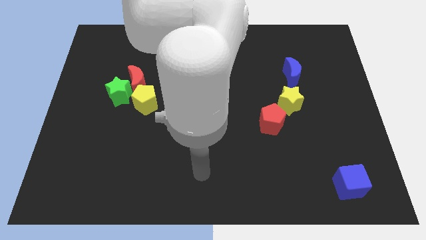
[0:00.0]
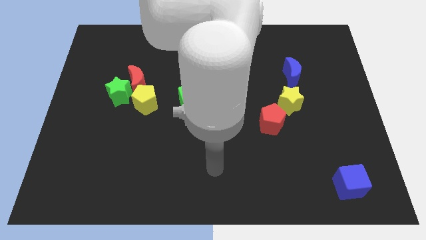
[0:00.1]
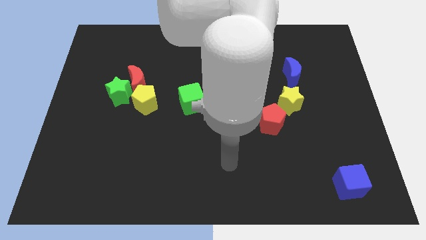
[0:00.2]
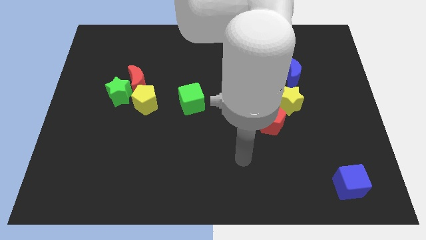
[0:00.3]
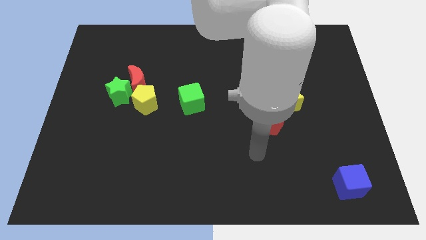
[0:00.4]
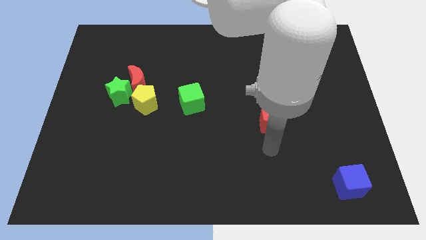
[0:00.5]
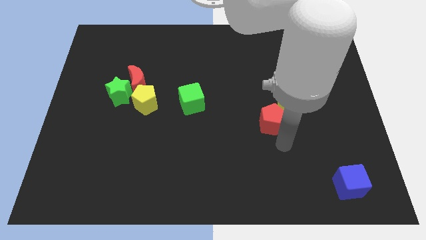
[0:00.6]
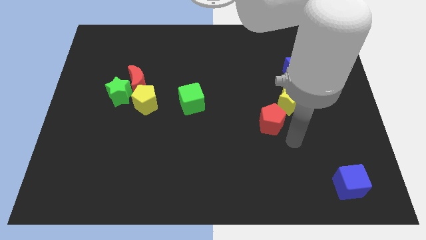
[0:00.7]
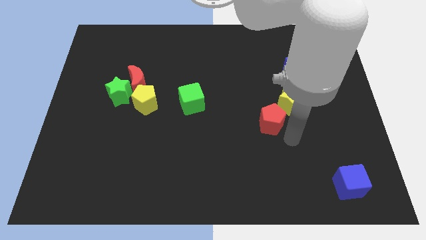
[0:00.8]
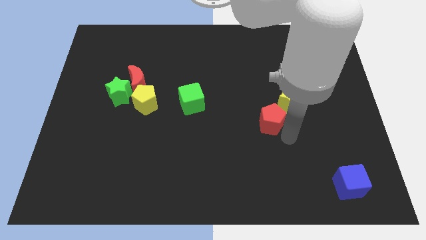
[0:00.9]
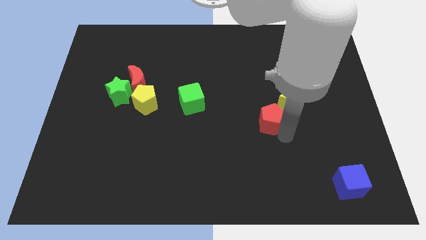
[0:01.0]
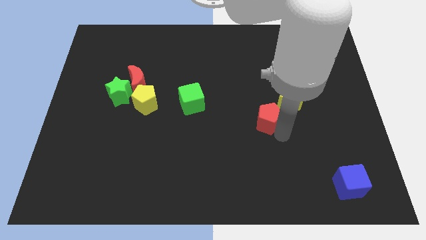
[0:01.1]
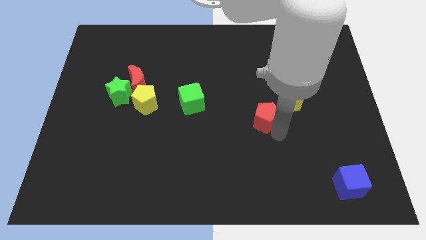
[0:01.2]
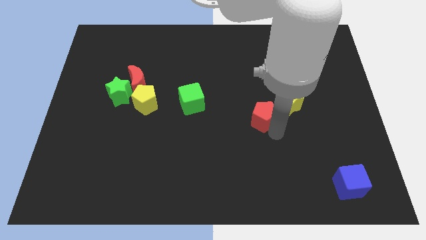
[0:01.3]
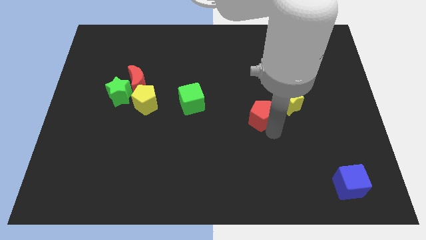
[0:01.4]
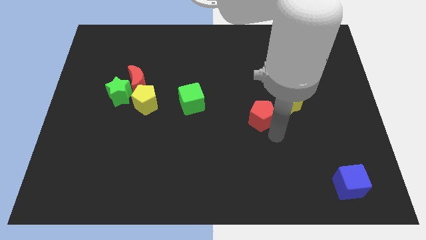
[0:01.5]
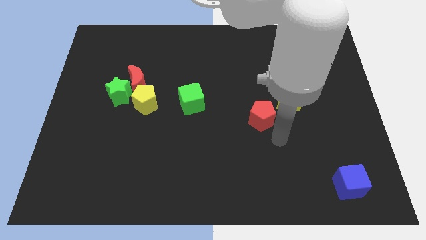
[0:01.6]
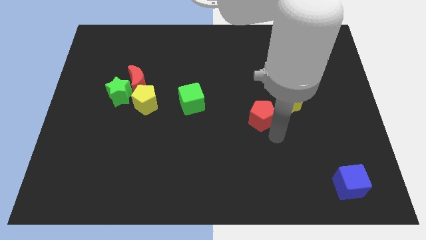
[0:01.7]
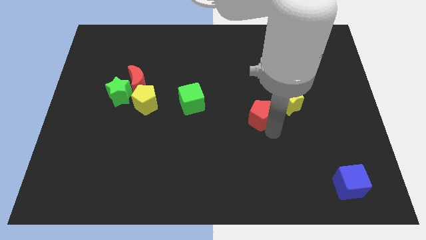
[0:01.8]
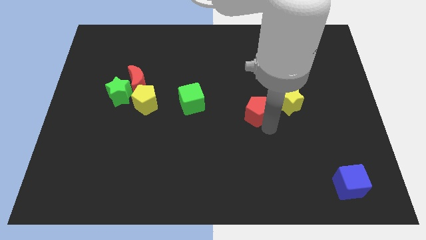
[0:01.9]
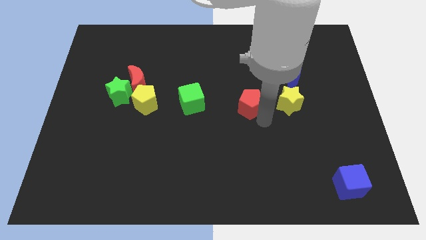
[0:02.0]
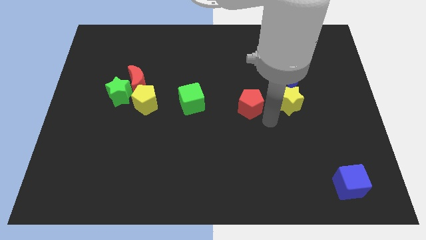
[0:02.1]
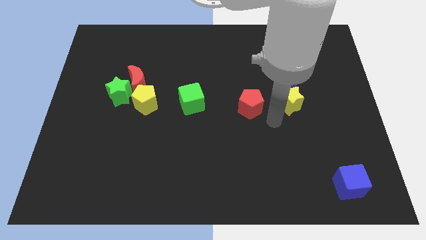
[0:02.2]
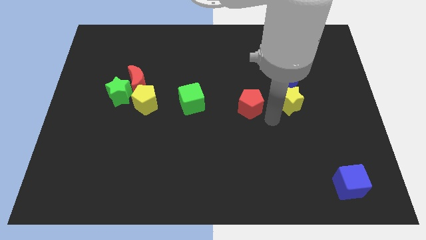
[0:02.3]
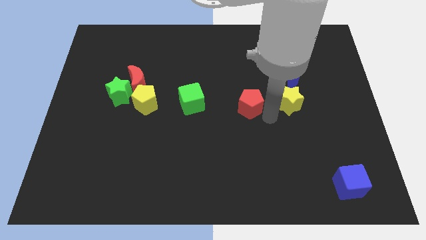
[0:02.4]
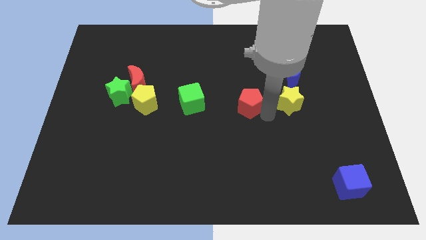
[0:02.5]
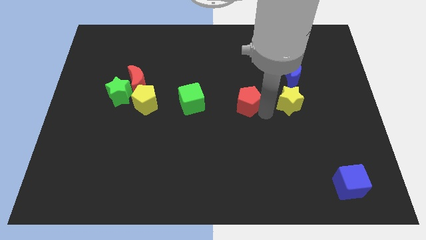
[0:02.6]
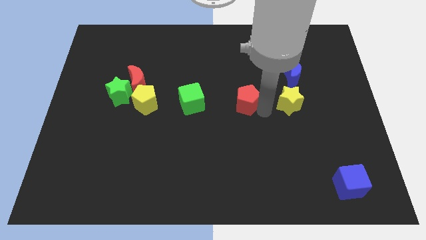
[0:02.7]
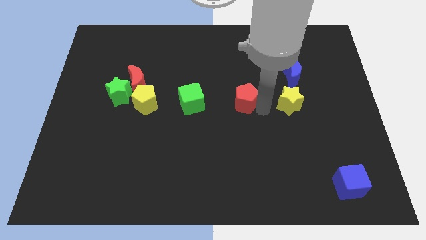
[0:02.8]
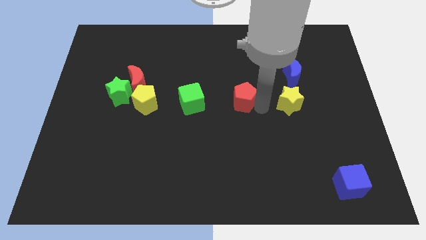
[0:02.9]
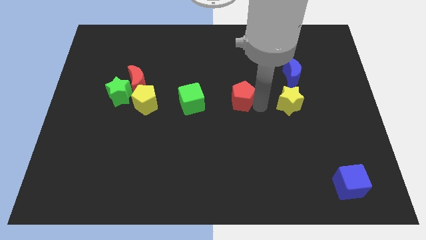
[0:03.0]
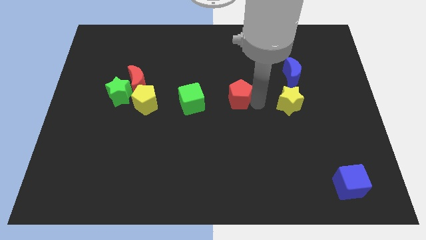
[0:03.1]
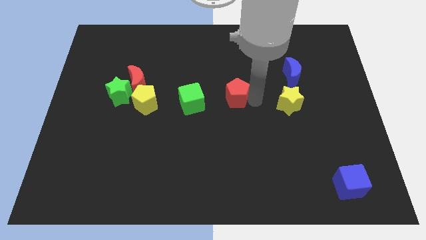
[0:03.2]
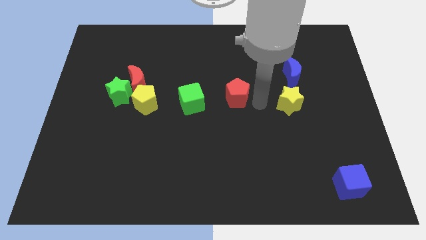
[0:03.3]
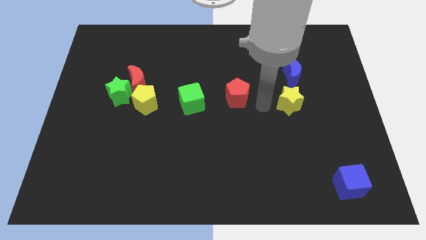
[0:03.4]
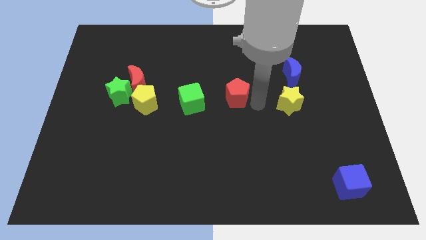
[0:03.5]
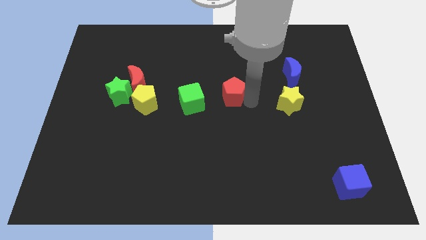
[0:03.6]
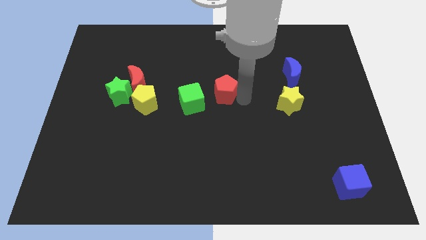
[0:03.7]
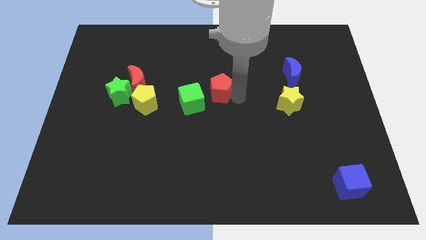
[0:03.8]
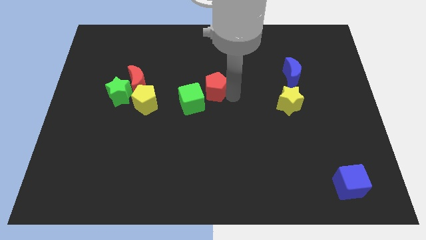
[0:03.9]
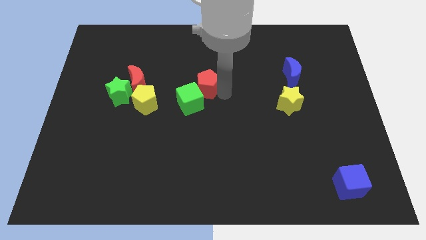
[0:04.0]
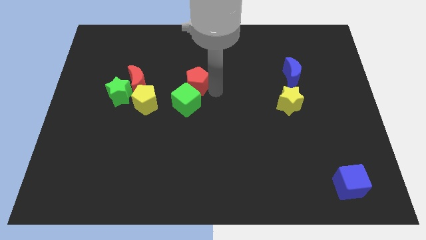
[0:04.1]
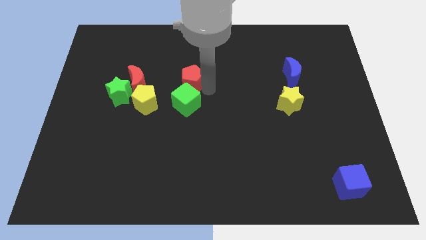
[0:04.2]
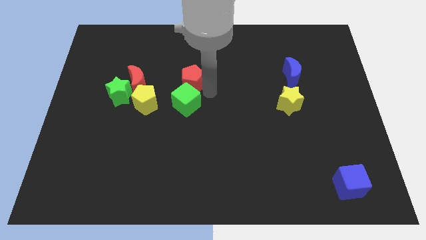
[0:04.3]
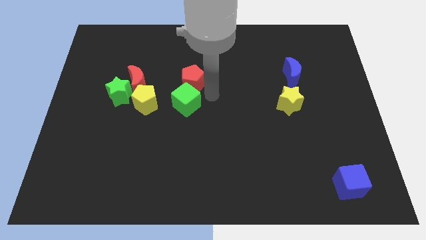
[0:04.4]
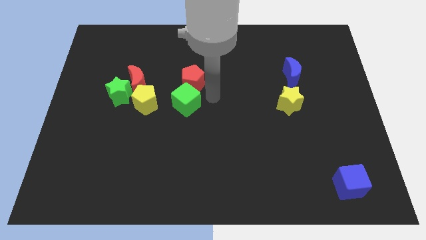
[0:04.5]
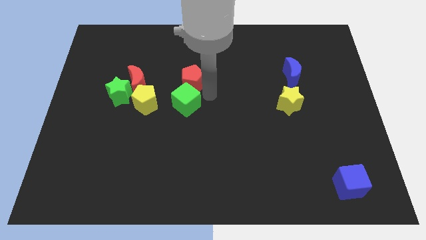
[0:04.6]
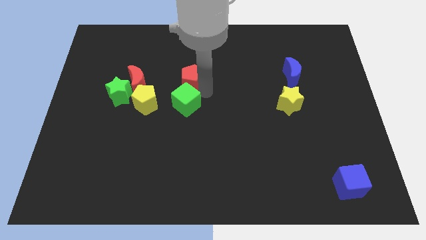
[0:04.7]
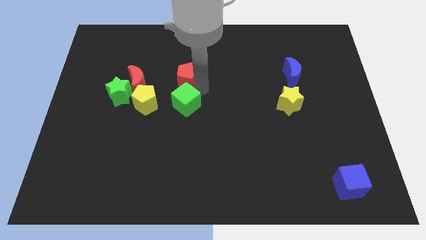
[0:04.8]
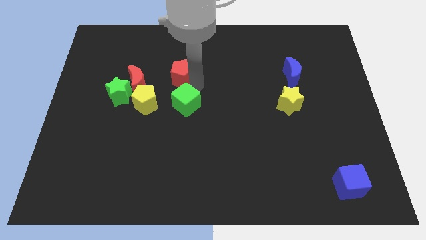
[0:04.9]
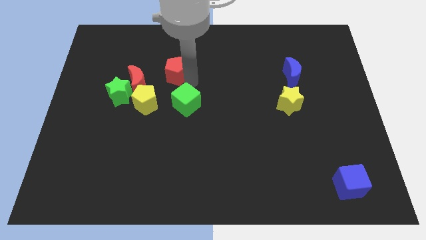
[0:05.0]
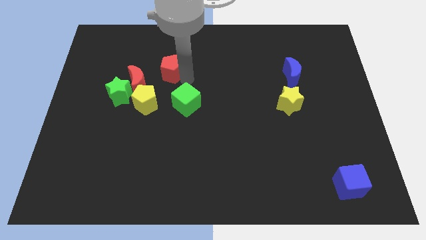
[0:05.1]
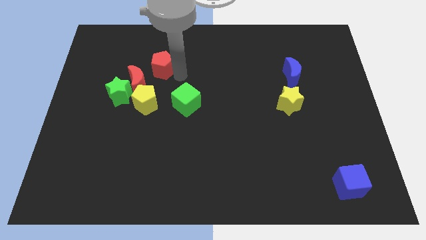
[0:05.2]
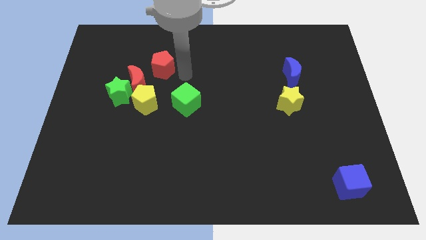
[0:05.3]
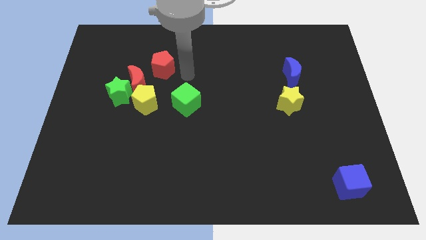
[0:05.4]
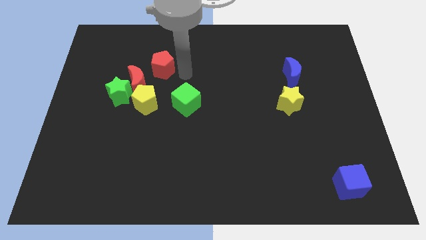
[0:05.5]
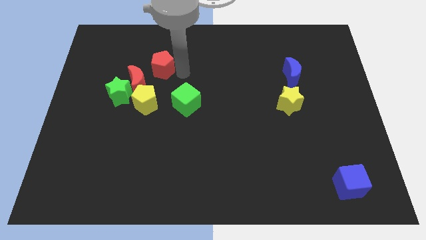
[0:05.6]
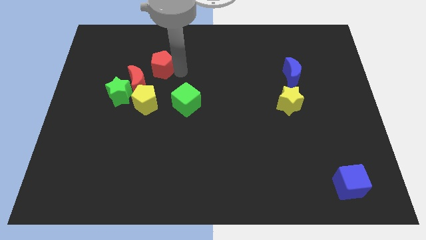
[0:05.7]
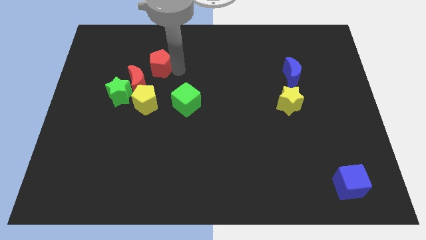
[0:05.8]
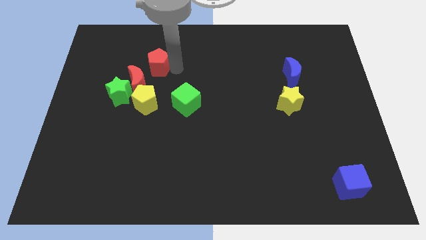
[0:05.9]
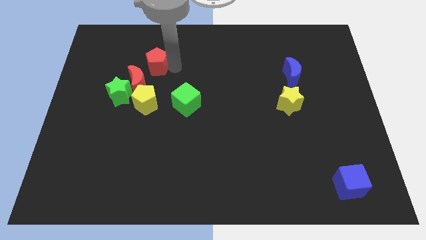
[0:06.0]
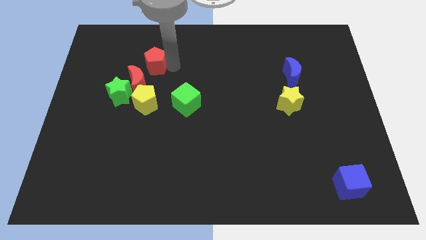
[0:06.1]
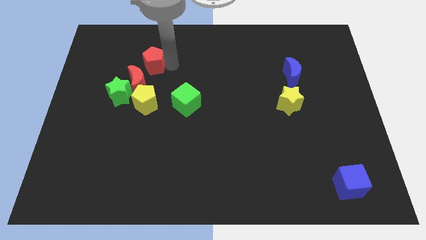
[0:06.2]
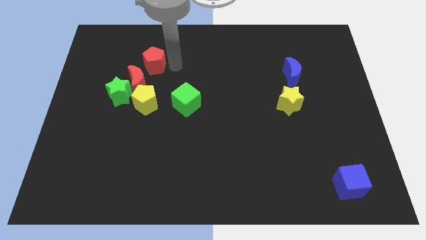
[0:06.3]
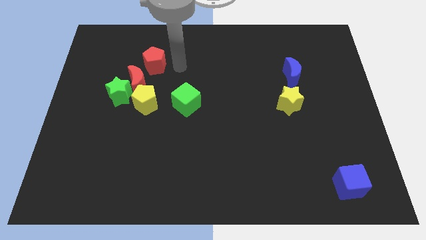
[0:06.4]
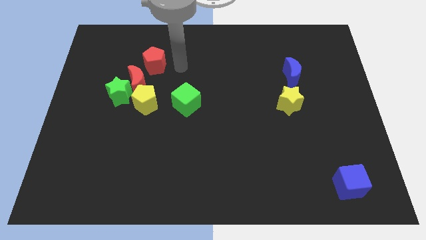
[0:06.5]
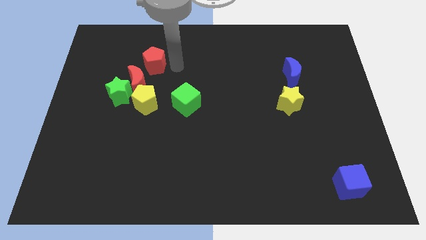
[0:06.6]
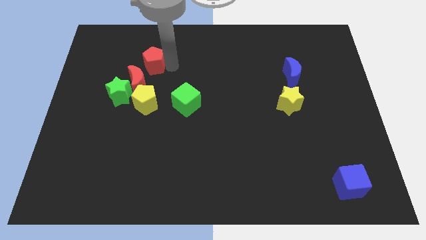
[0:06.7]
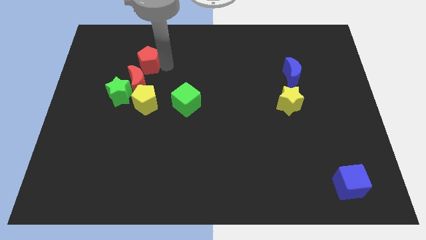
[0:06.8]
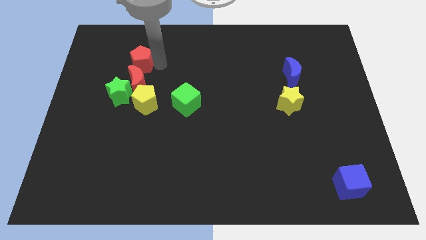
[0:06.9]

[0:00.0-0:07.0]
put the red pentagon to the top of the green star
